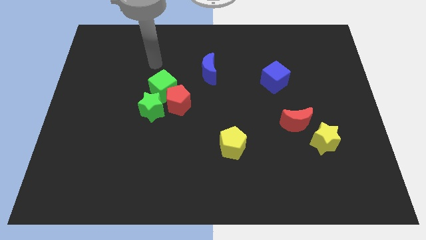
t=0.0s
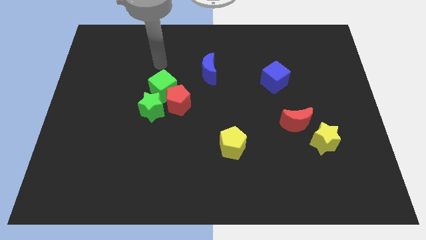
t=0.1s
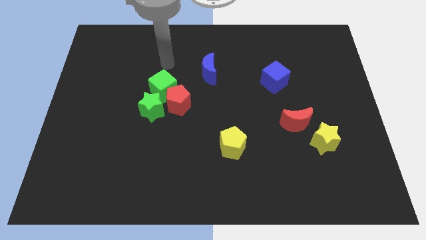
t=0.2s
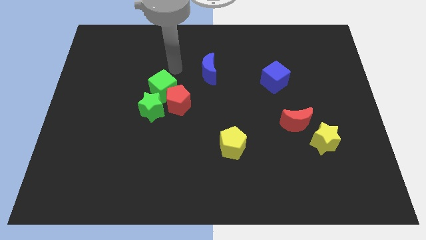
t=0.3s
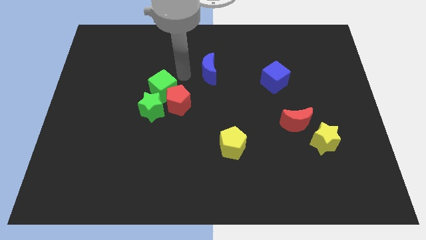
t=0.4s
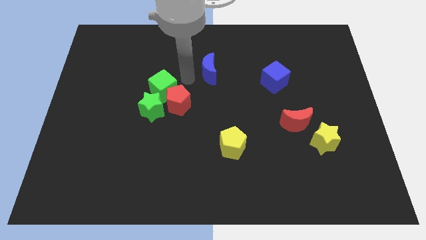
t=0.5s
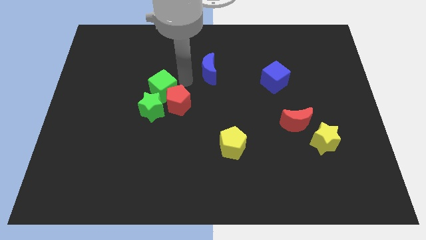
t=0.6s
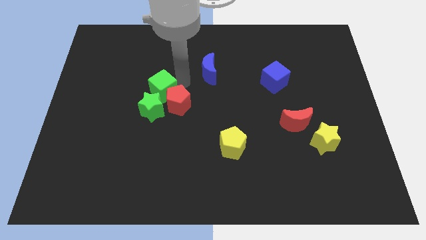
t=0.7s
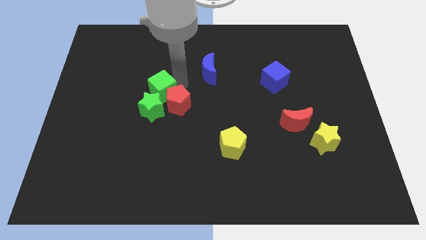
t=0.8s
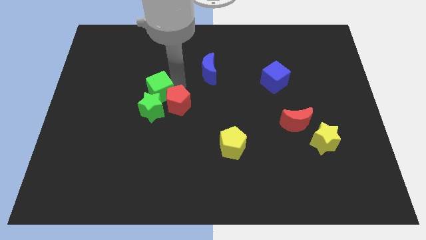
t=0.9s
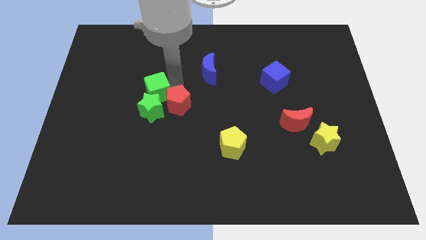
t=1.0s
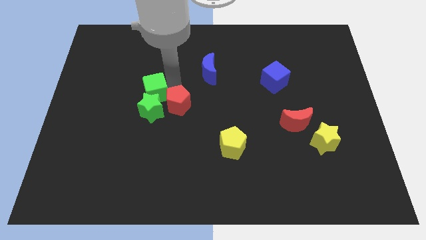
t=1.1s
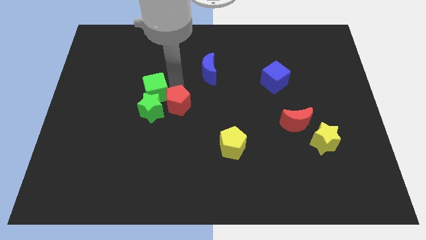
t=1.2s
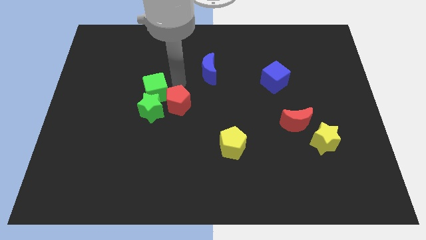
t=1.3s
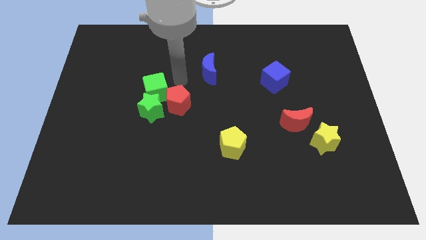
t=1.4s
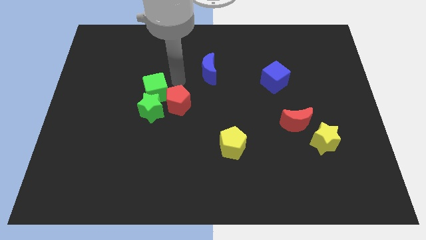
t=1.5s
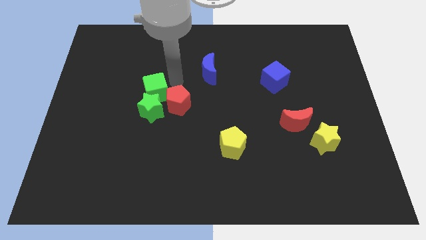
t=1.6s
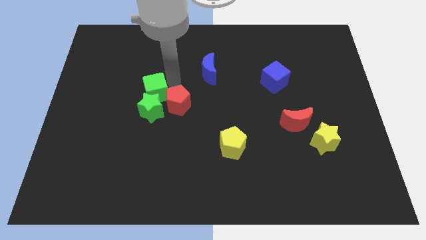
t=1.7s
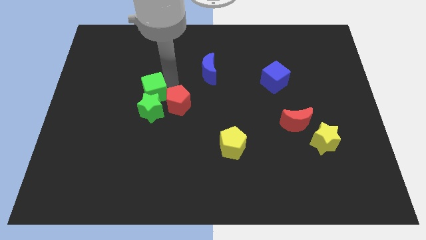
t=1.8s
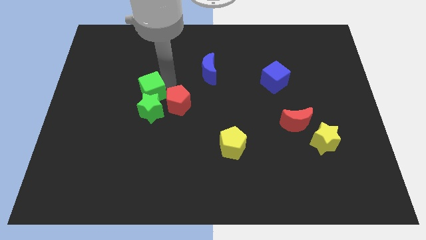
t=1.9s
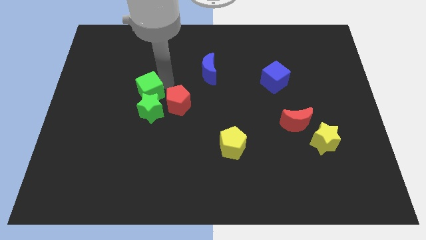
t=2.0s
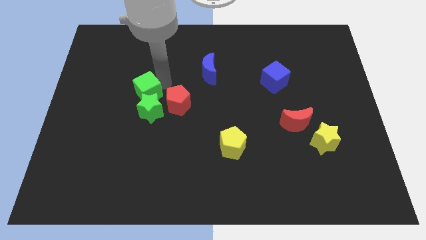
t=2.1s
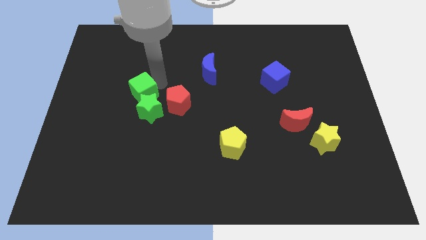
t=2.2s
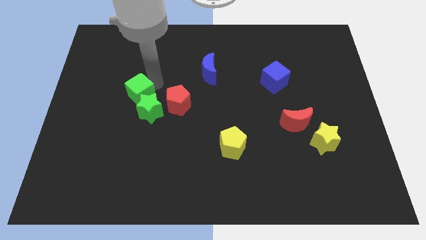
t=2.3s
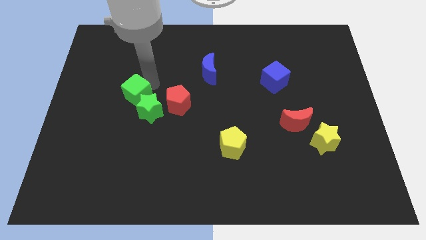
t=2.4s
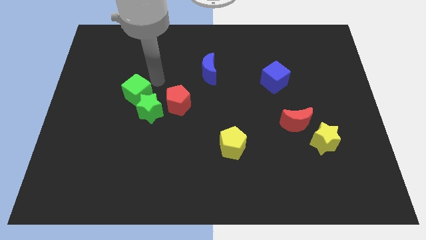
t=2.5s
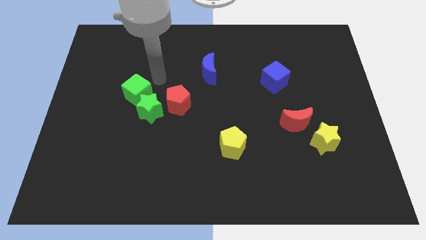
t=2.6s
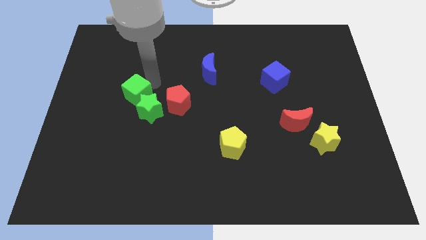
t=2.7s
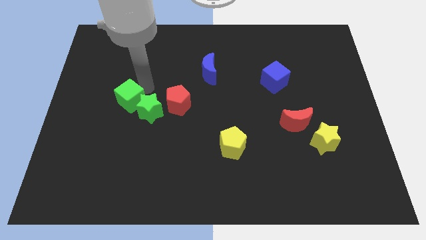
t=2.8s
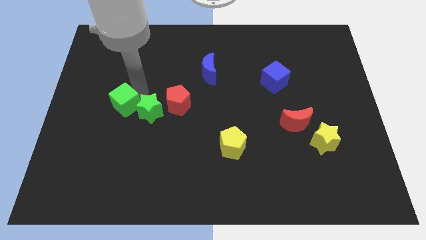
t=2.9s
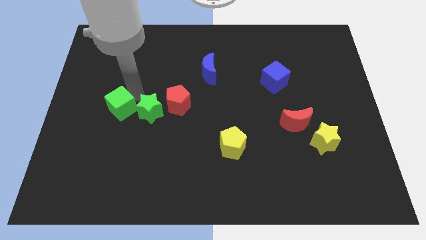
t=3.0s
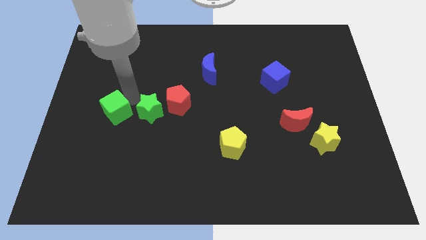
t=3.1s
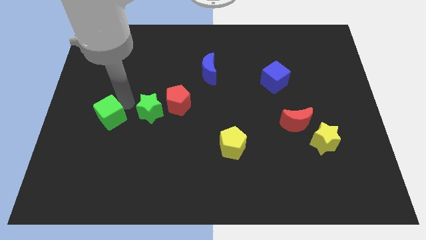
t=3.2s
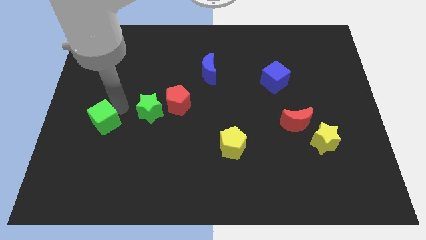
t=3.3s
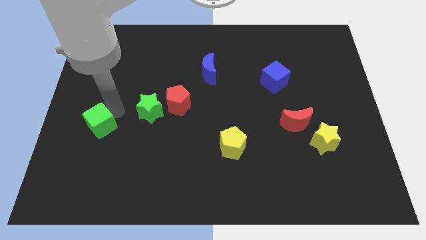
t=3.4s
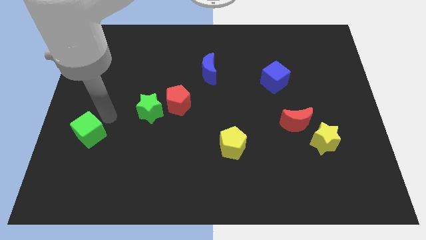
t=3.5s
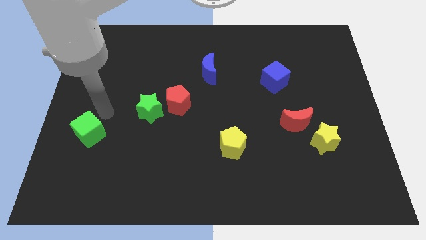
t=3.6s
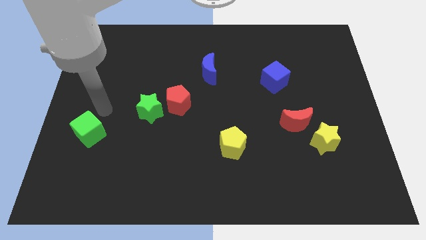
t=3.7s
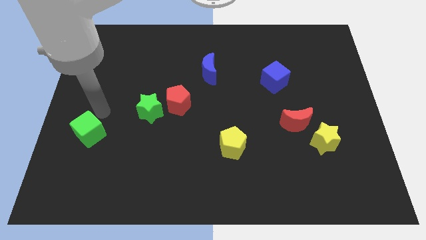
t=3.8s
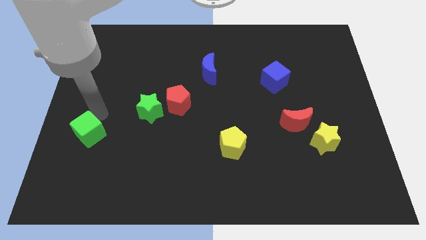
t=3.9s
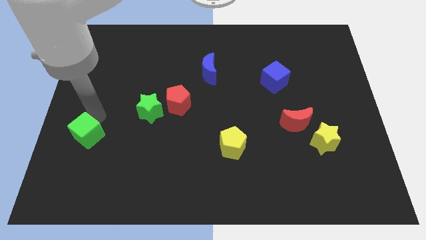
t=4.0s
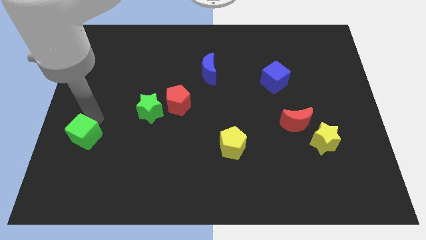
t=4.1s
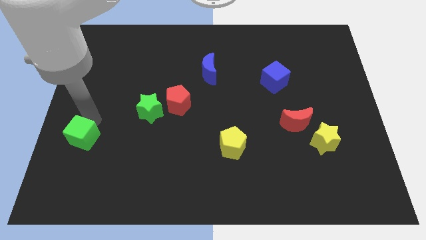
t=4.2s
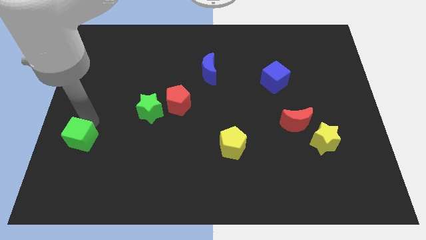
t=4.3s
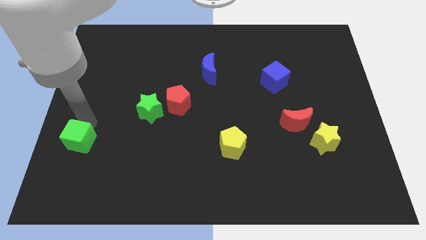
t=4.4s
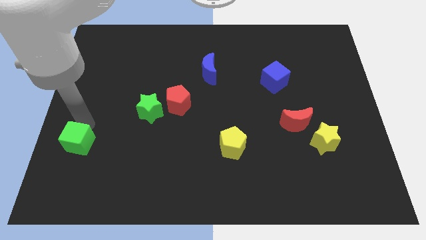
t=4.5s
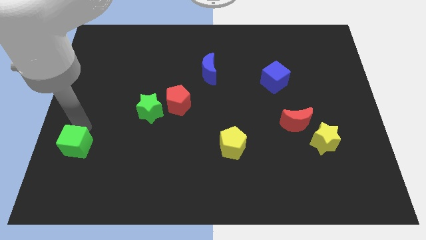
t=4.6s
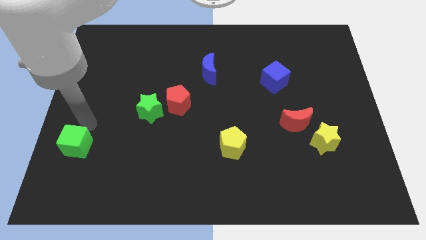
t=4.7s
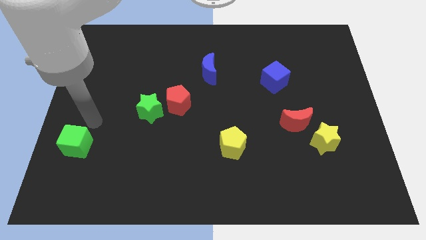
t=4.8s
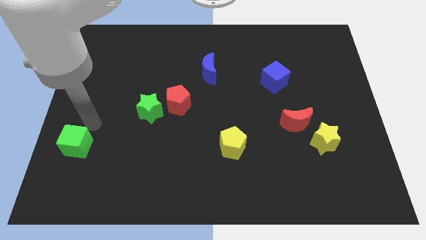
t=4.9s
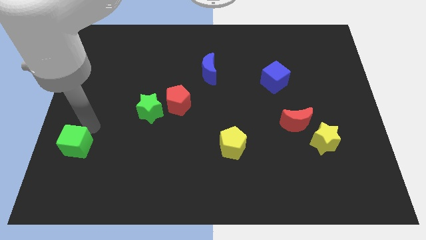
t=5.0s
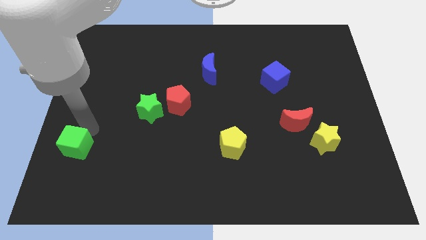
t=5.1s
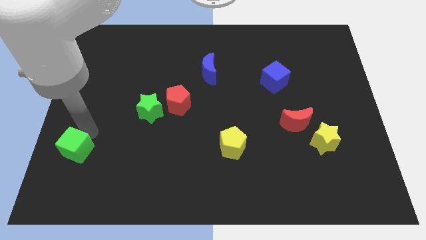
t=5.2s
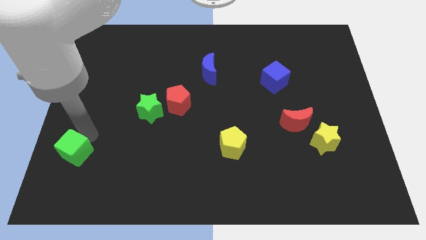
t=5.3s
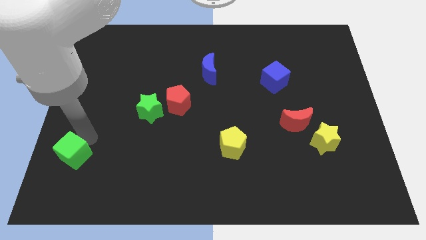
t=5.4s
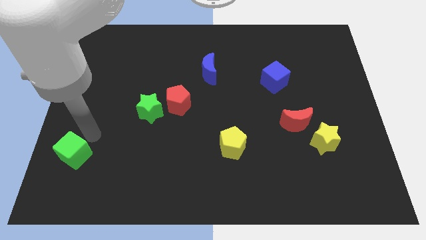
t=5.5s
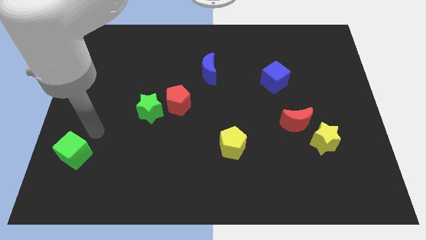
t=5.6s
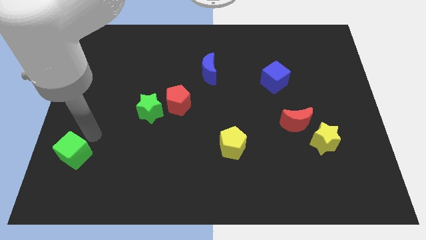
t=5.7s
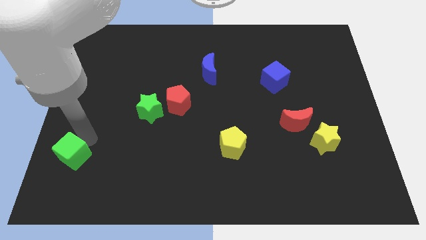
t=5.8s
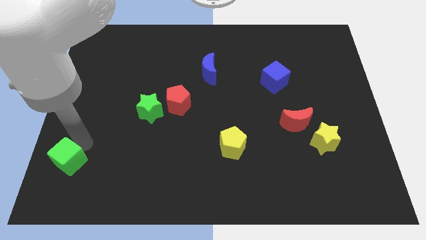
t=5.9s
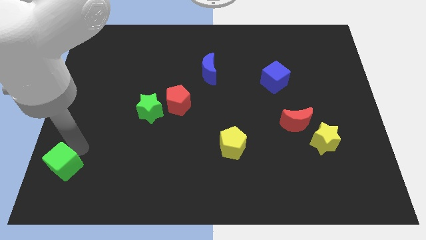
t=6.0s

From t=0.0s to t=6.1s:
slide the green cube to the bottom left

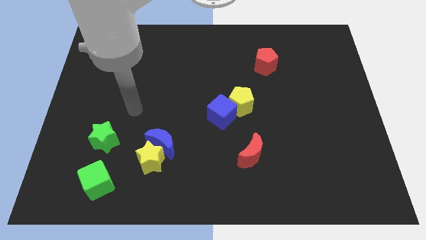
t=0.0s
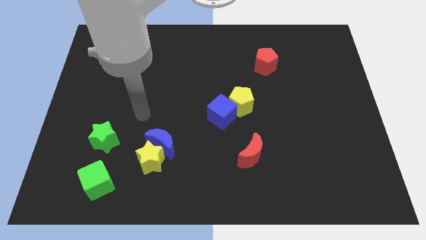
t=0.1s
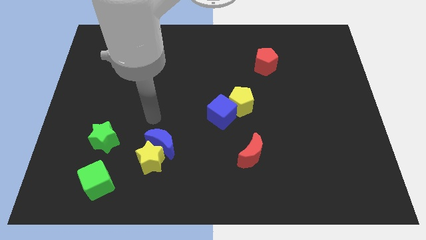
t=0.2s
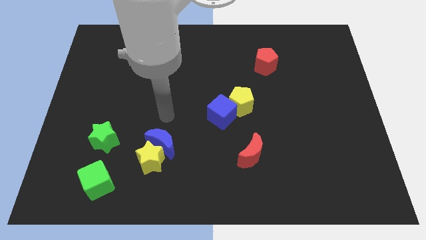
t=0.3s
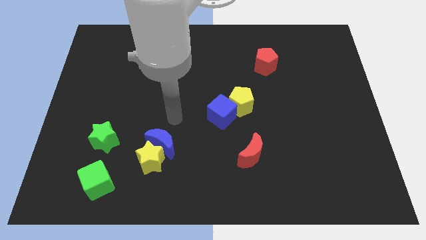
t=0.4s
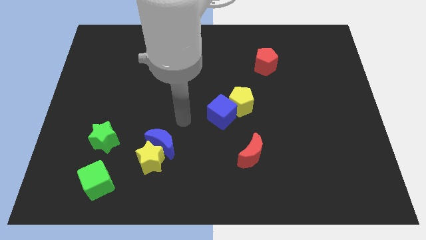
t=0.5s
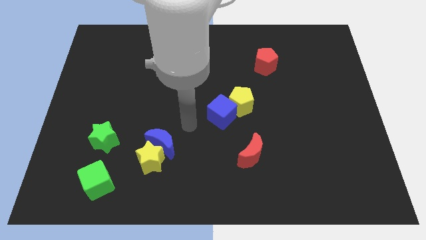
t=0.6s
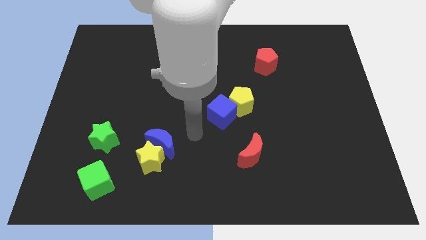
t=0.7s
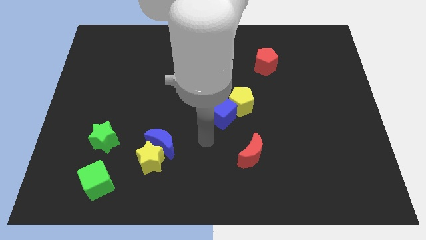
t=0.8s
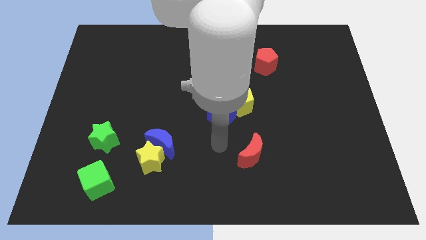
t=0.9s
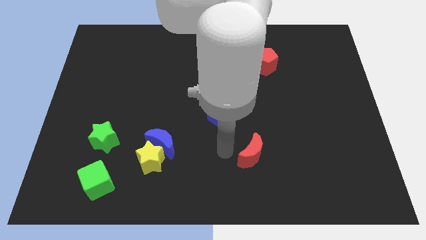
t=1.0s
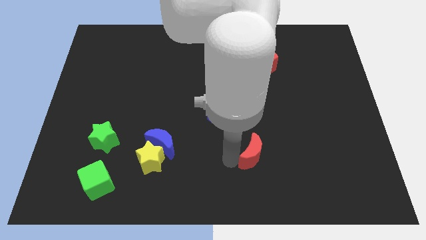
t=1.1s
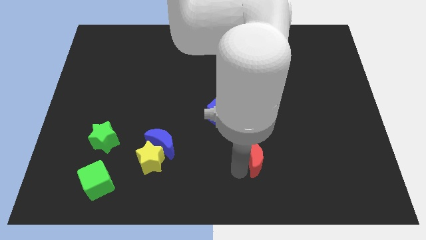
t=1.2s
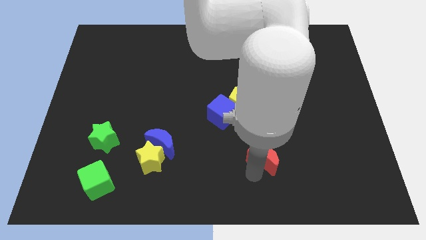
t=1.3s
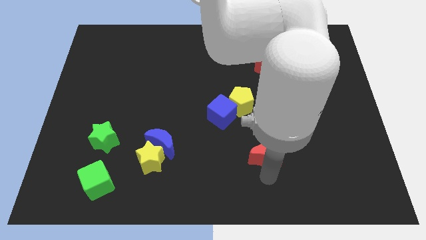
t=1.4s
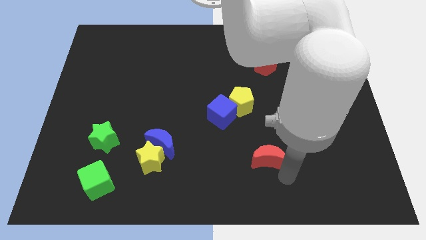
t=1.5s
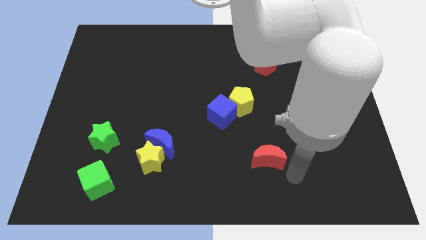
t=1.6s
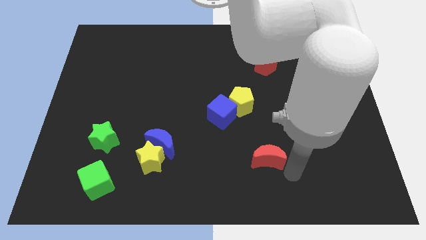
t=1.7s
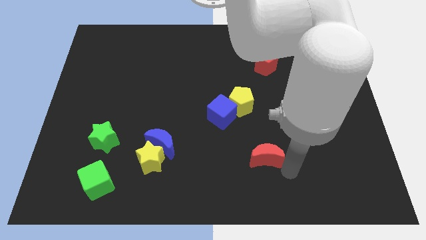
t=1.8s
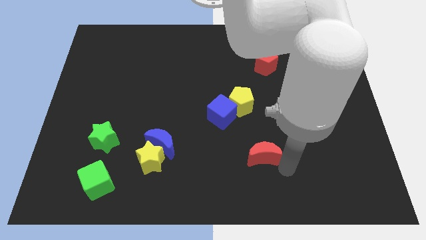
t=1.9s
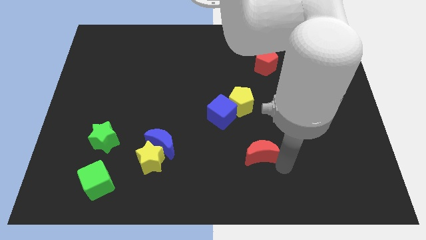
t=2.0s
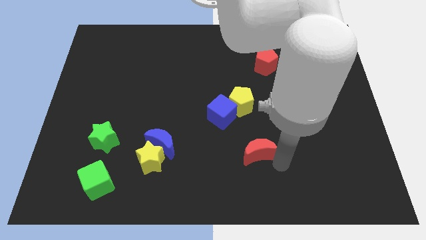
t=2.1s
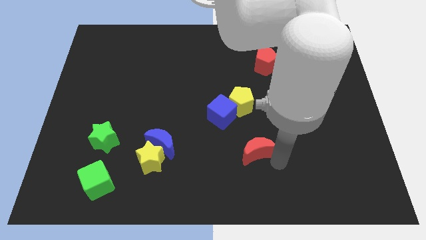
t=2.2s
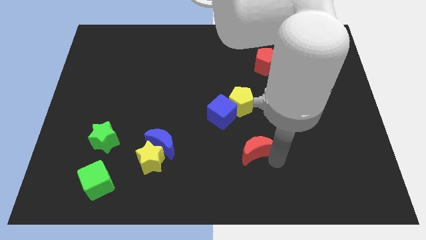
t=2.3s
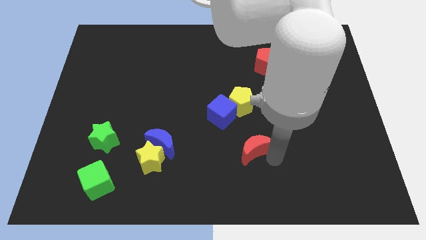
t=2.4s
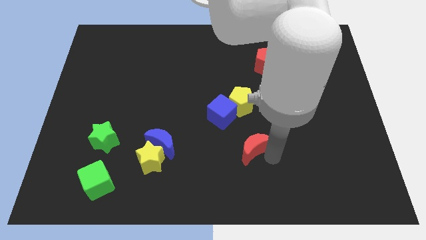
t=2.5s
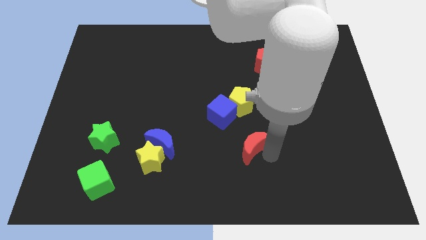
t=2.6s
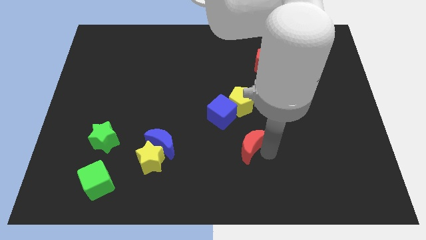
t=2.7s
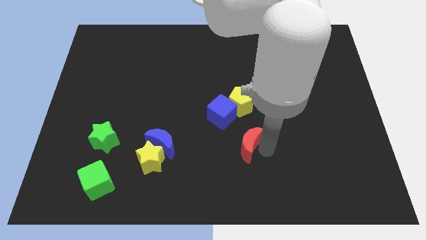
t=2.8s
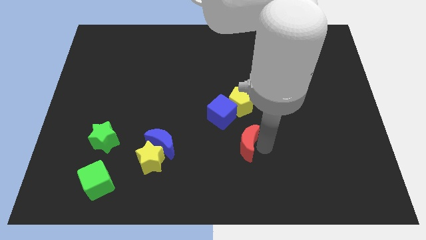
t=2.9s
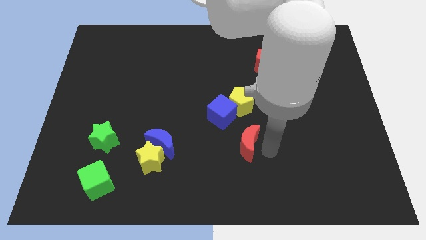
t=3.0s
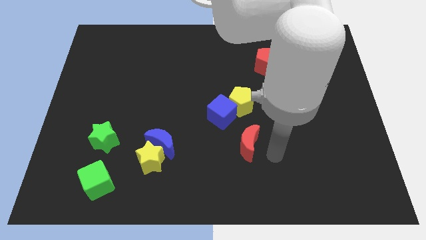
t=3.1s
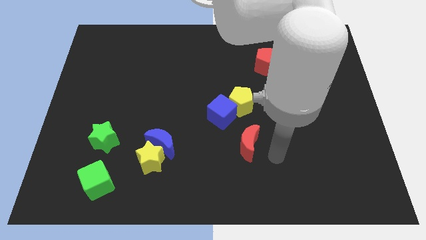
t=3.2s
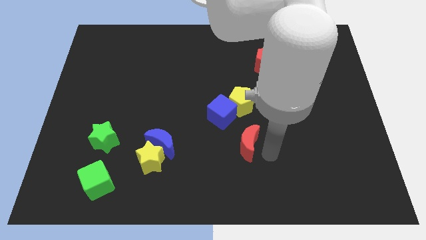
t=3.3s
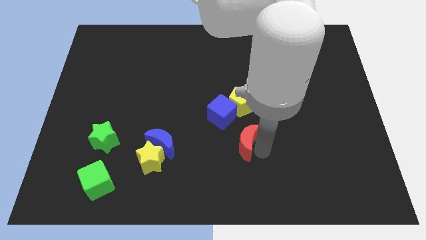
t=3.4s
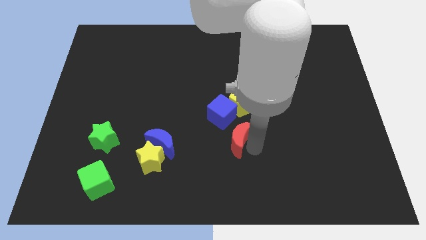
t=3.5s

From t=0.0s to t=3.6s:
push the red moon to the middle
